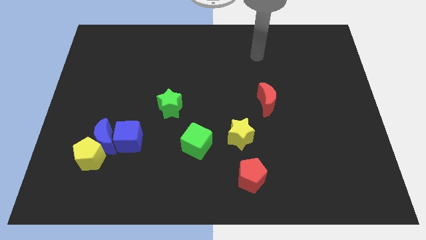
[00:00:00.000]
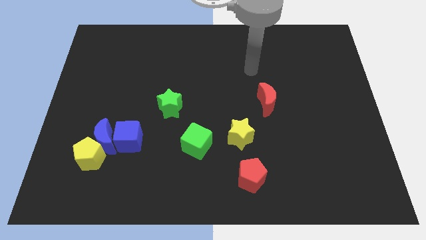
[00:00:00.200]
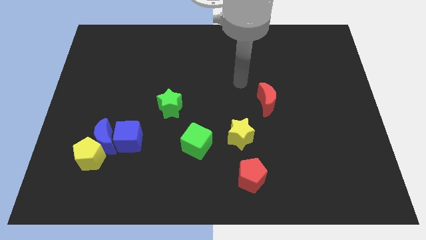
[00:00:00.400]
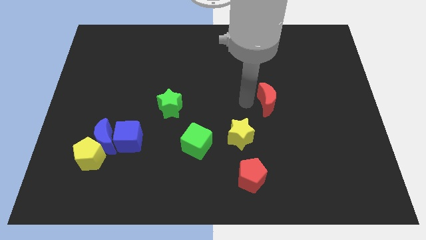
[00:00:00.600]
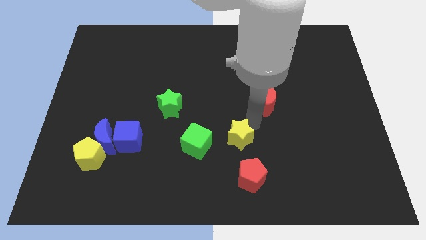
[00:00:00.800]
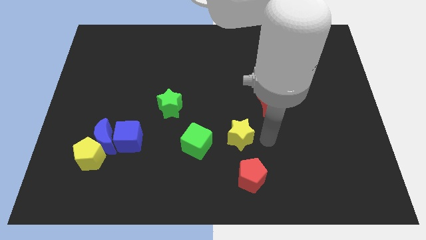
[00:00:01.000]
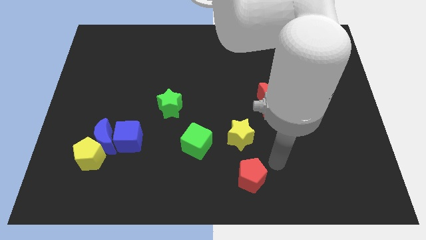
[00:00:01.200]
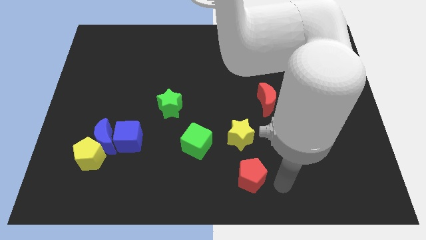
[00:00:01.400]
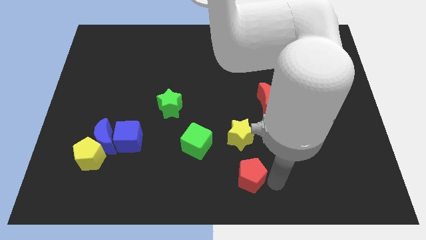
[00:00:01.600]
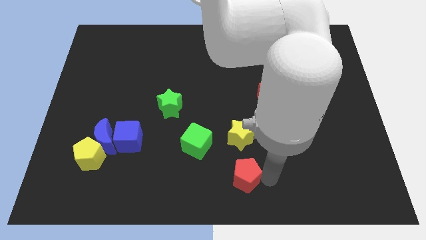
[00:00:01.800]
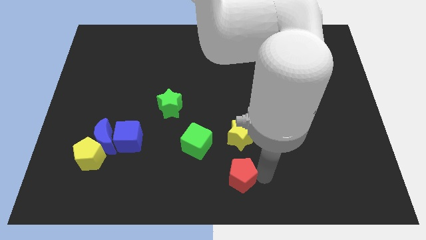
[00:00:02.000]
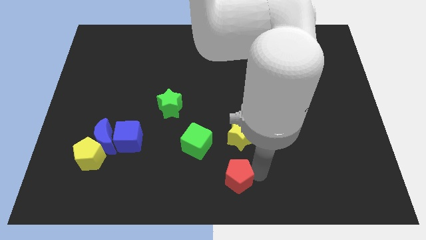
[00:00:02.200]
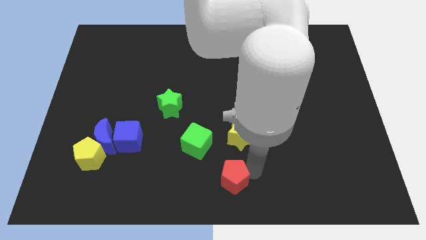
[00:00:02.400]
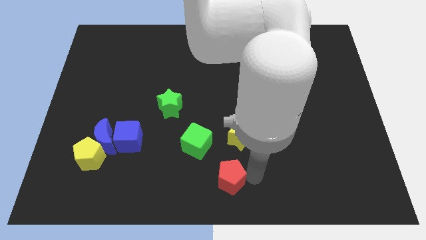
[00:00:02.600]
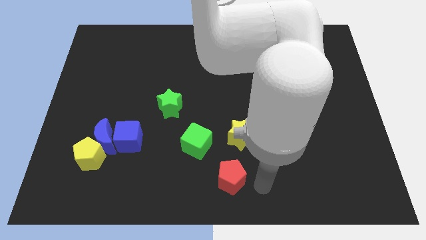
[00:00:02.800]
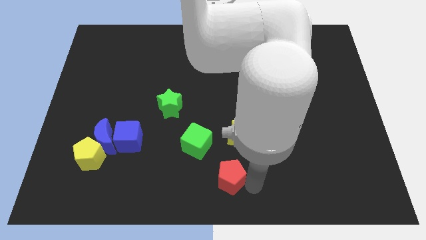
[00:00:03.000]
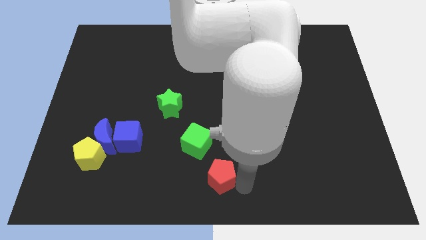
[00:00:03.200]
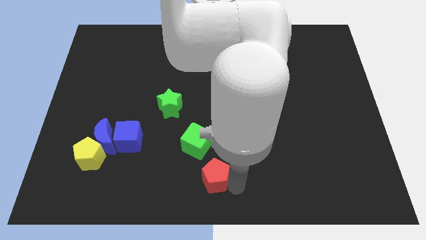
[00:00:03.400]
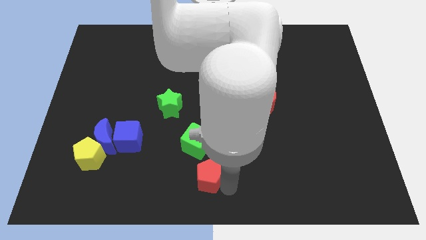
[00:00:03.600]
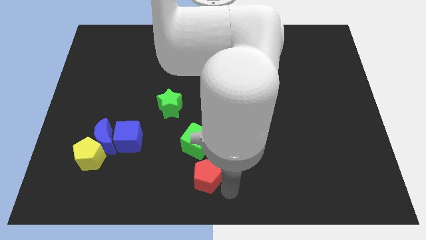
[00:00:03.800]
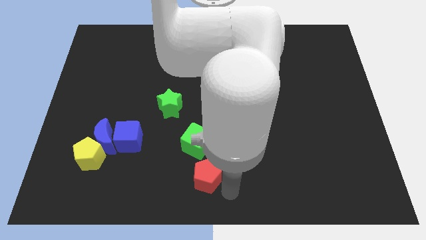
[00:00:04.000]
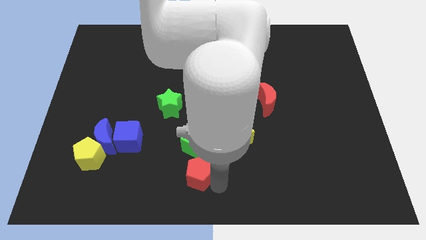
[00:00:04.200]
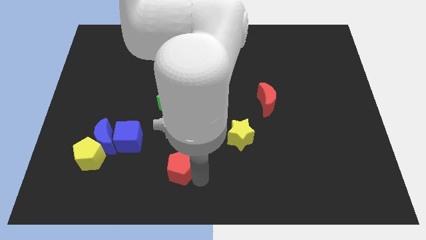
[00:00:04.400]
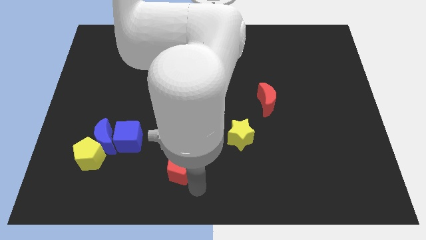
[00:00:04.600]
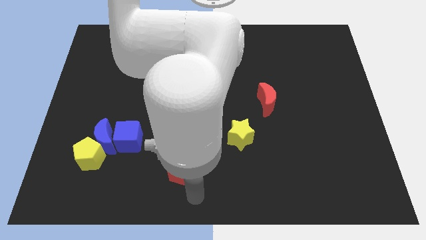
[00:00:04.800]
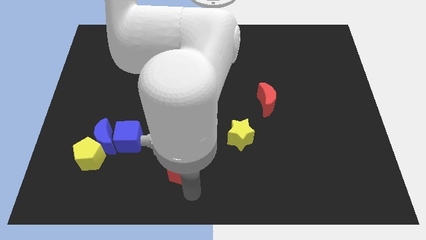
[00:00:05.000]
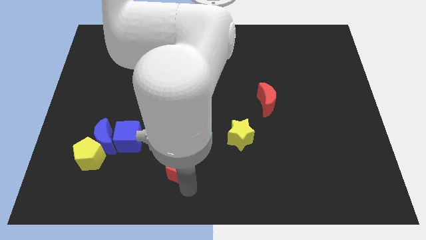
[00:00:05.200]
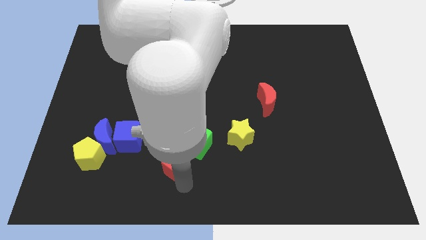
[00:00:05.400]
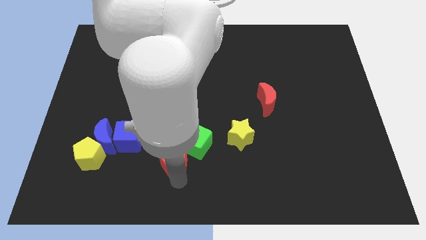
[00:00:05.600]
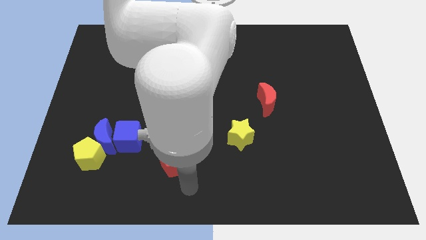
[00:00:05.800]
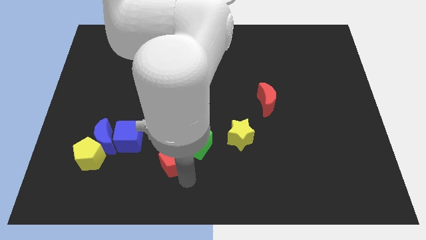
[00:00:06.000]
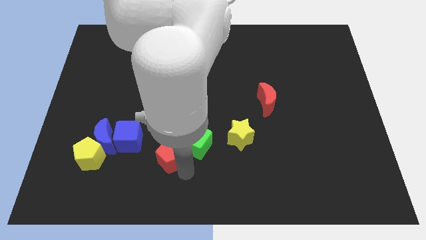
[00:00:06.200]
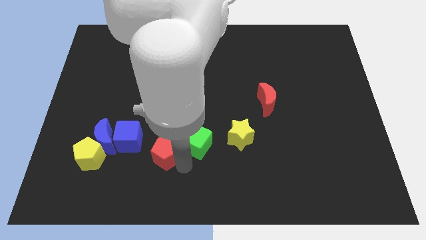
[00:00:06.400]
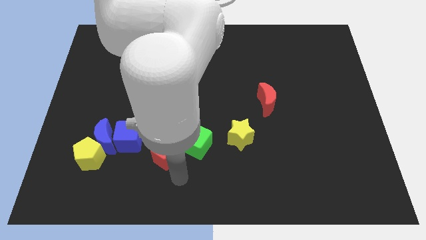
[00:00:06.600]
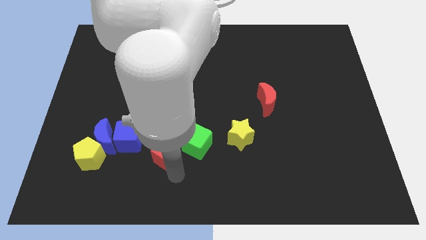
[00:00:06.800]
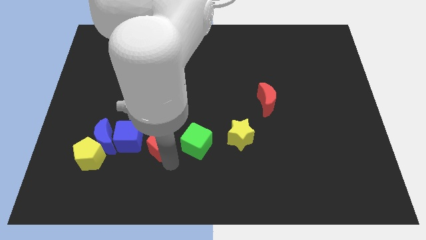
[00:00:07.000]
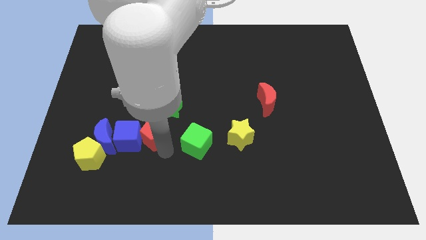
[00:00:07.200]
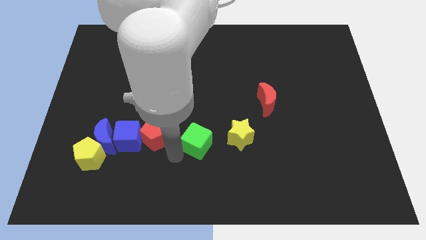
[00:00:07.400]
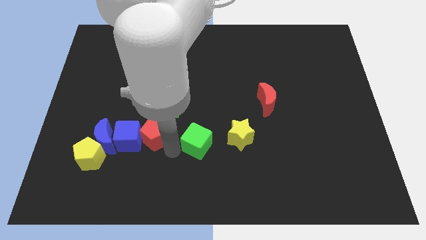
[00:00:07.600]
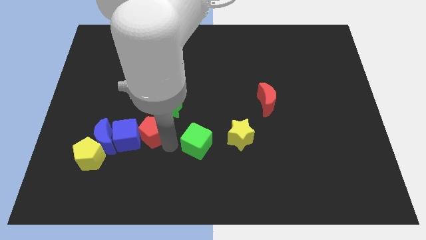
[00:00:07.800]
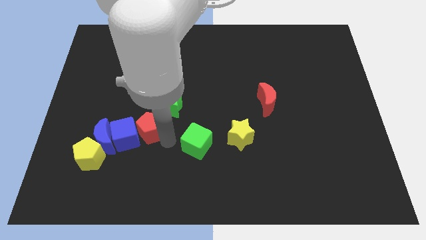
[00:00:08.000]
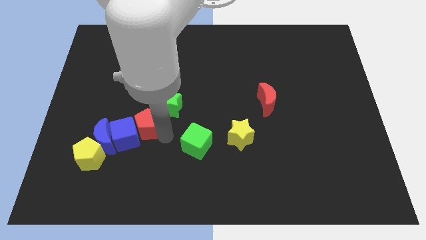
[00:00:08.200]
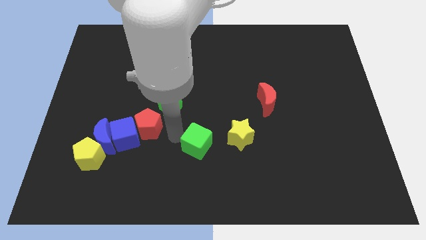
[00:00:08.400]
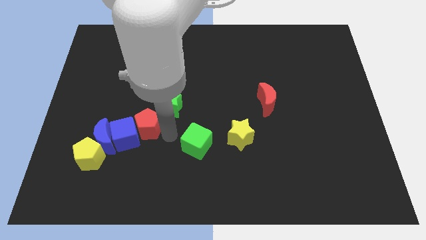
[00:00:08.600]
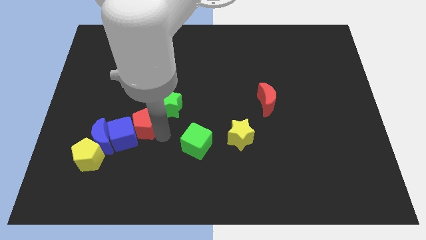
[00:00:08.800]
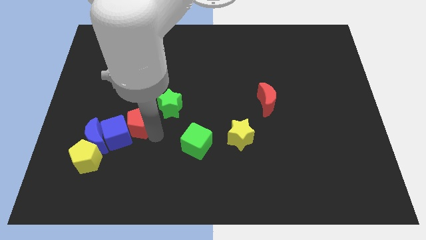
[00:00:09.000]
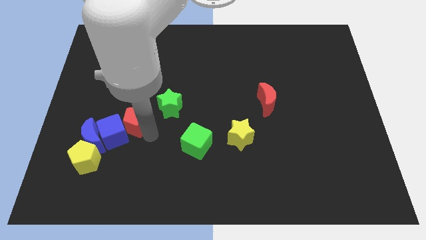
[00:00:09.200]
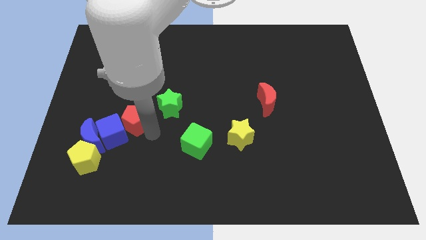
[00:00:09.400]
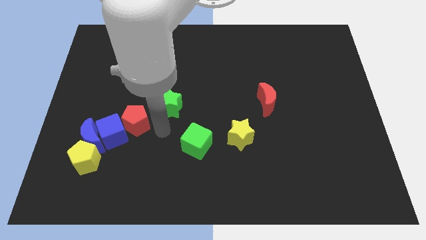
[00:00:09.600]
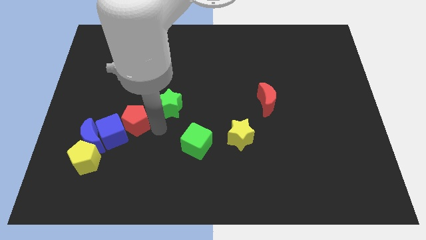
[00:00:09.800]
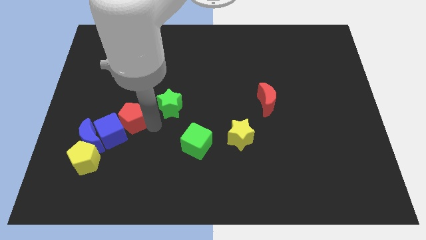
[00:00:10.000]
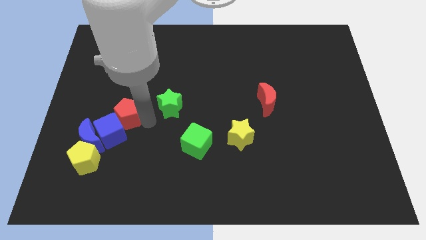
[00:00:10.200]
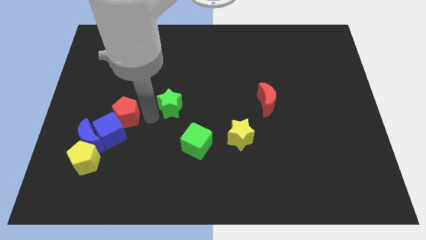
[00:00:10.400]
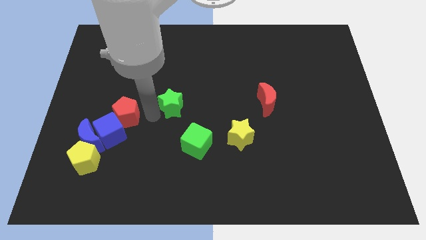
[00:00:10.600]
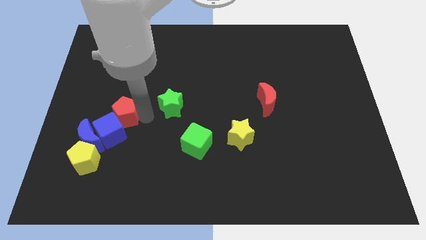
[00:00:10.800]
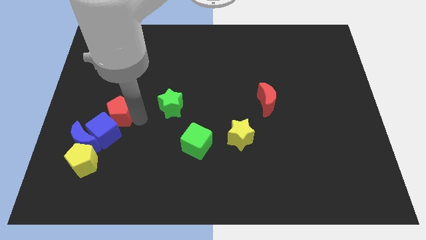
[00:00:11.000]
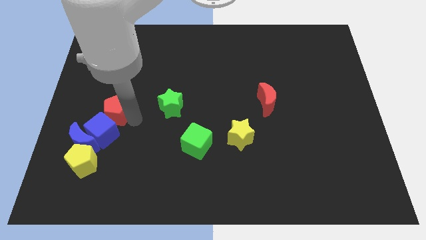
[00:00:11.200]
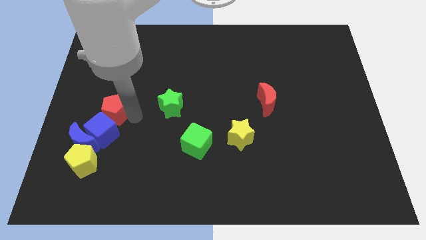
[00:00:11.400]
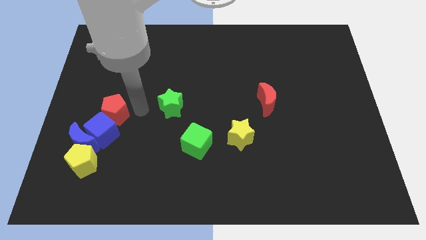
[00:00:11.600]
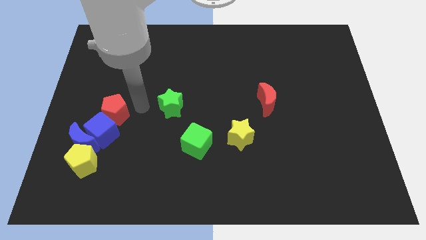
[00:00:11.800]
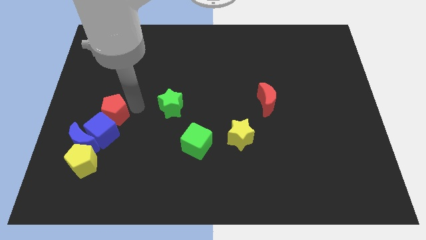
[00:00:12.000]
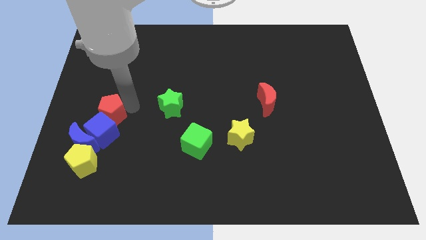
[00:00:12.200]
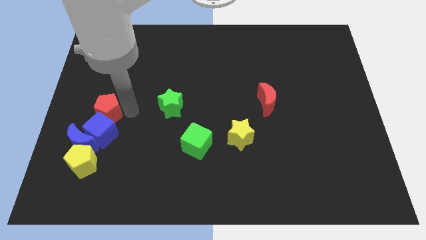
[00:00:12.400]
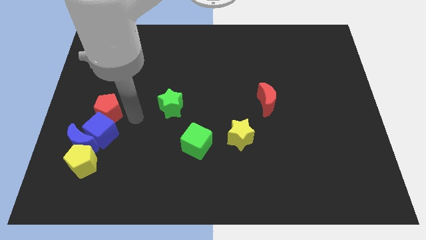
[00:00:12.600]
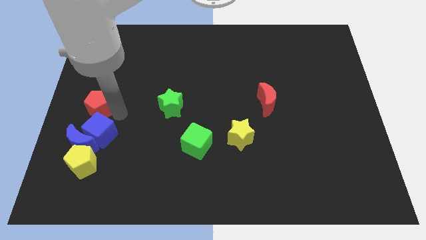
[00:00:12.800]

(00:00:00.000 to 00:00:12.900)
push the red pentagon to the left side of the board

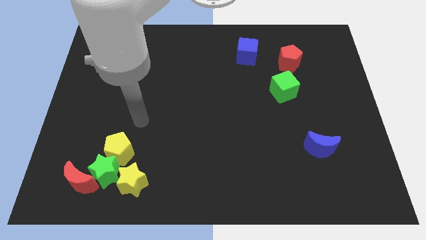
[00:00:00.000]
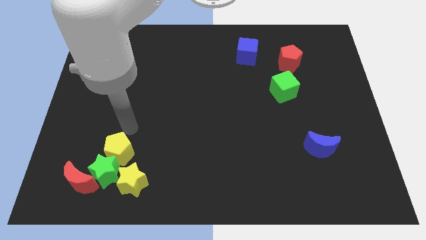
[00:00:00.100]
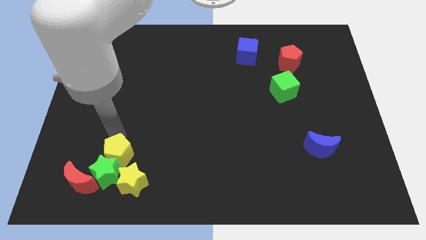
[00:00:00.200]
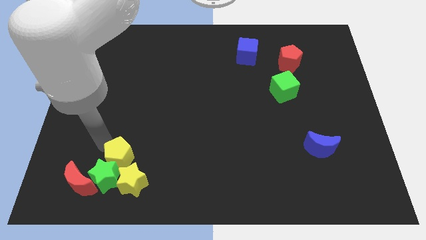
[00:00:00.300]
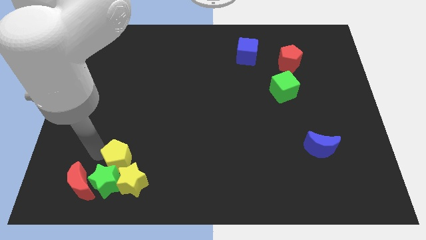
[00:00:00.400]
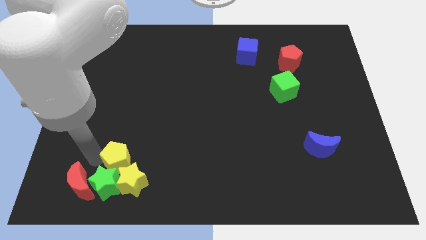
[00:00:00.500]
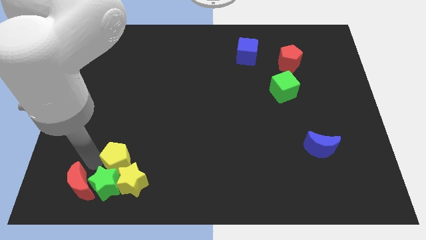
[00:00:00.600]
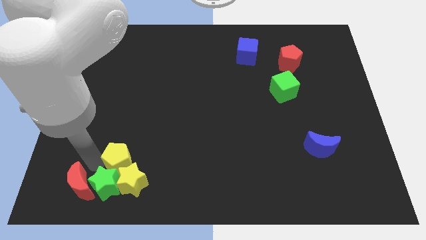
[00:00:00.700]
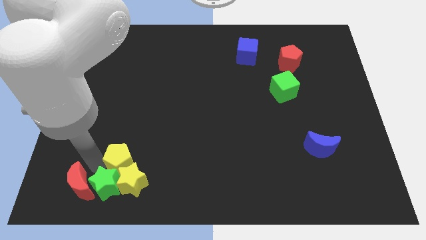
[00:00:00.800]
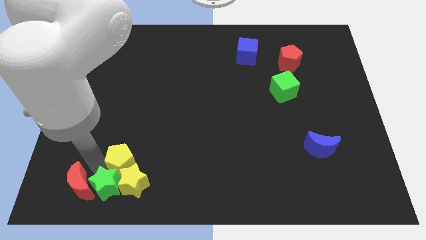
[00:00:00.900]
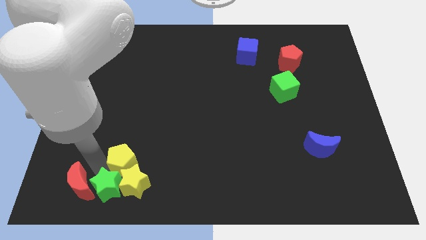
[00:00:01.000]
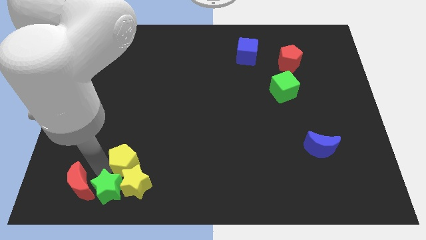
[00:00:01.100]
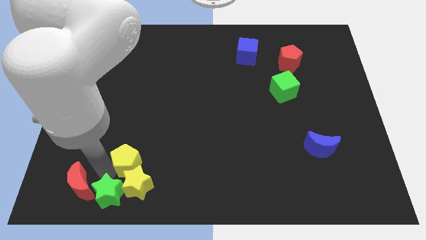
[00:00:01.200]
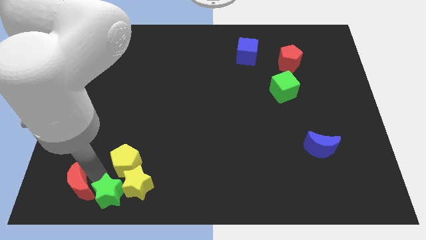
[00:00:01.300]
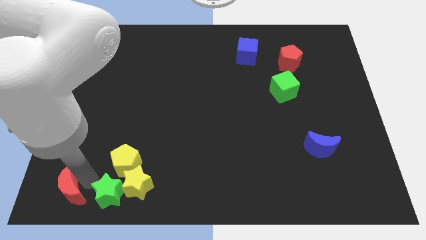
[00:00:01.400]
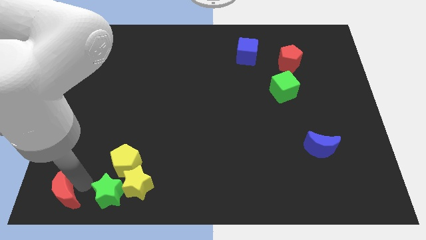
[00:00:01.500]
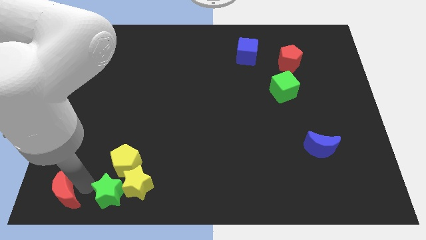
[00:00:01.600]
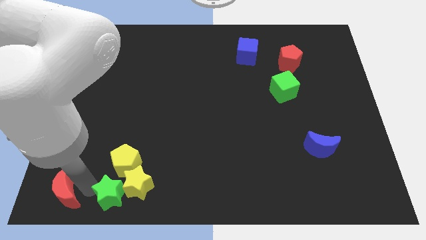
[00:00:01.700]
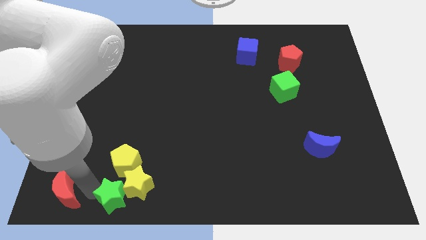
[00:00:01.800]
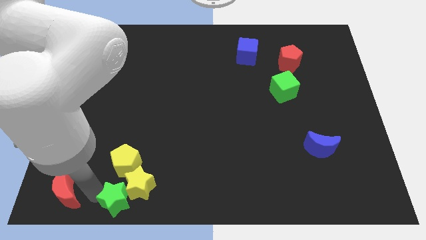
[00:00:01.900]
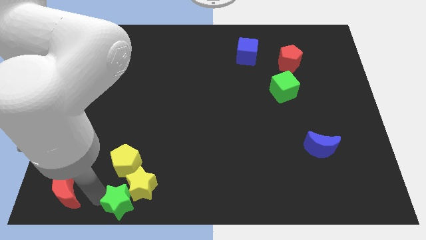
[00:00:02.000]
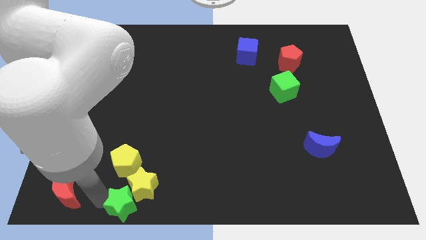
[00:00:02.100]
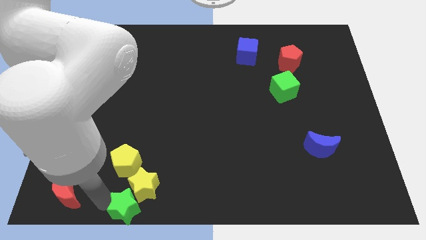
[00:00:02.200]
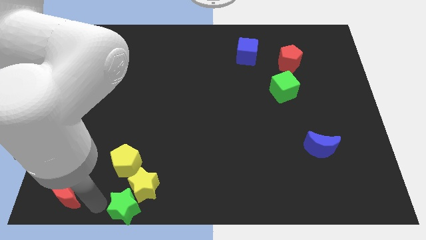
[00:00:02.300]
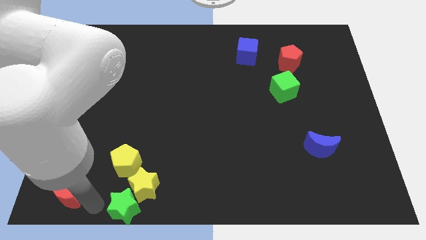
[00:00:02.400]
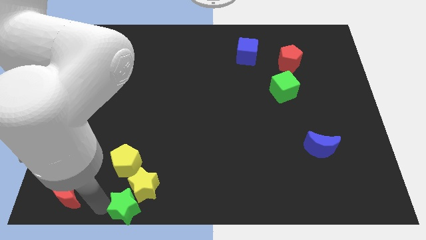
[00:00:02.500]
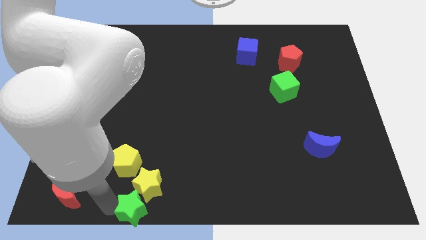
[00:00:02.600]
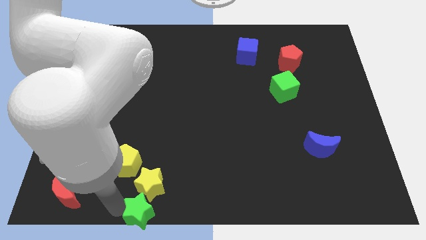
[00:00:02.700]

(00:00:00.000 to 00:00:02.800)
move the green star to the bottom
